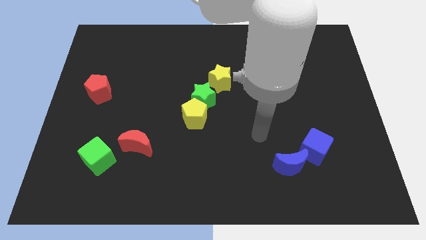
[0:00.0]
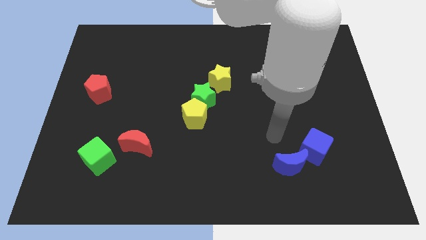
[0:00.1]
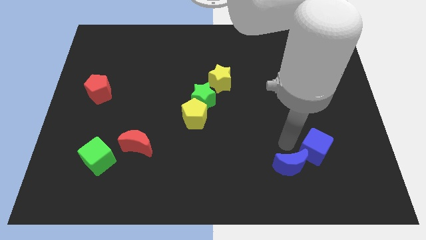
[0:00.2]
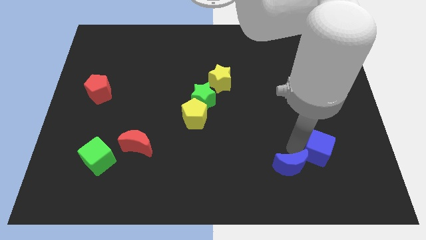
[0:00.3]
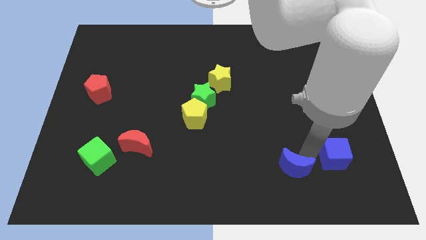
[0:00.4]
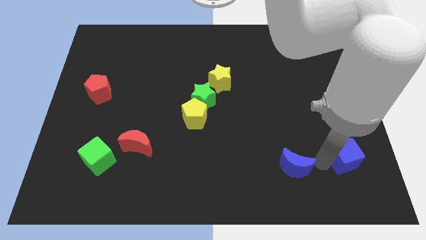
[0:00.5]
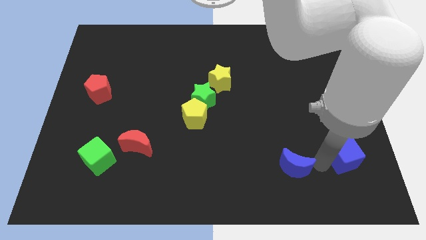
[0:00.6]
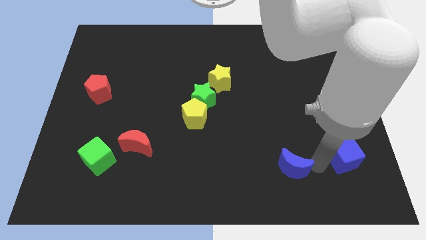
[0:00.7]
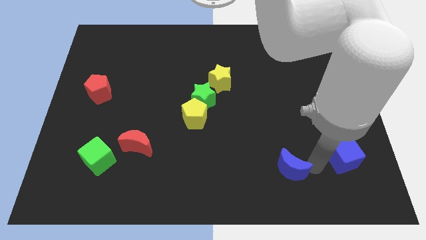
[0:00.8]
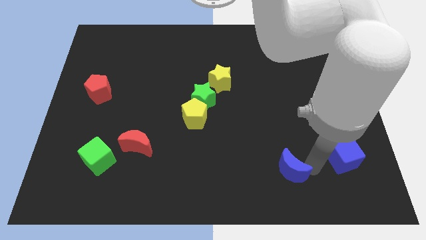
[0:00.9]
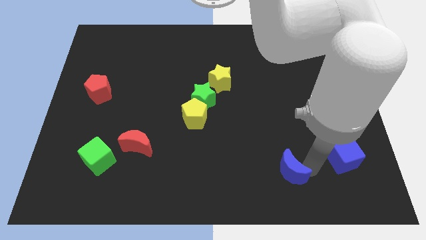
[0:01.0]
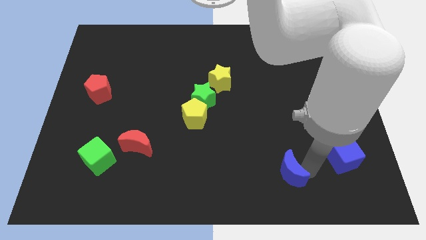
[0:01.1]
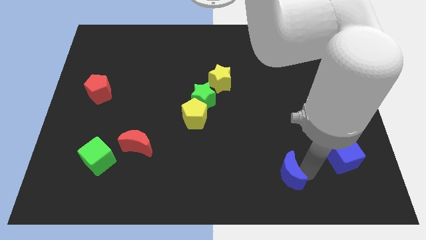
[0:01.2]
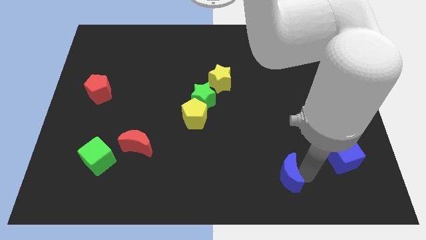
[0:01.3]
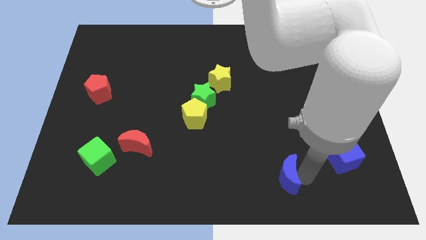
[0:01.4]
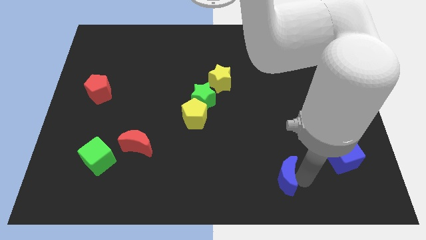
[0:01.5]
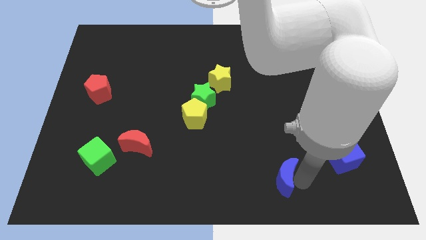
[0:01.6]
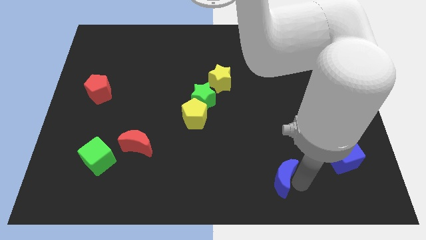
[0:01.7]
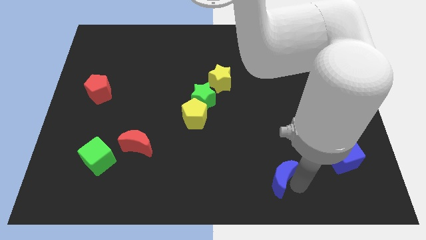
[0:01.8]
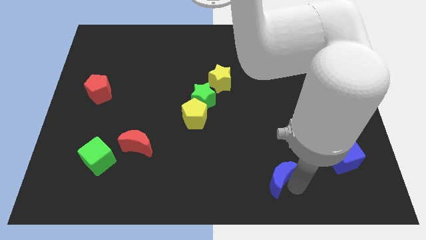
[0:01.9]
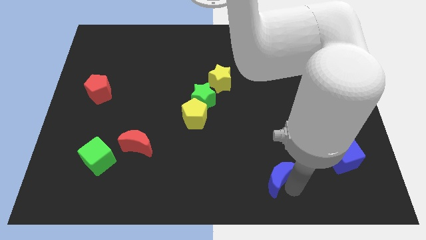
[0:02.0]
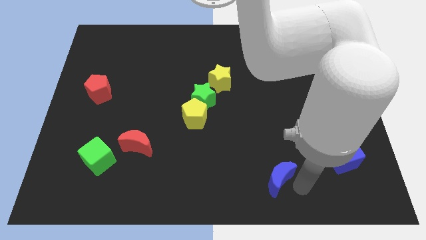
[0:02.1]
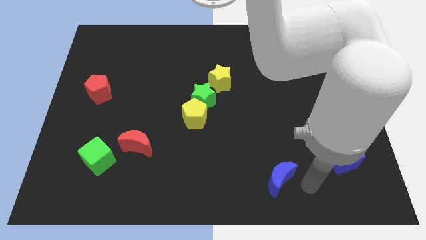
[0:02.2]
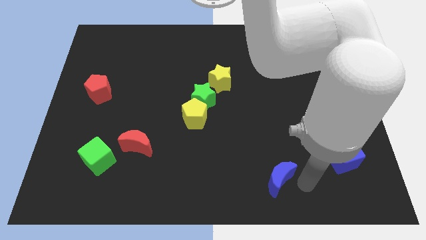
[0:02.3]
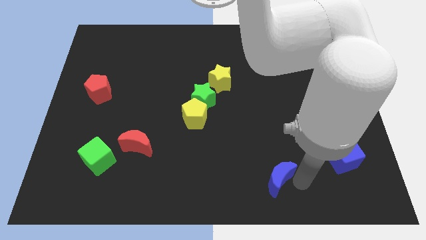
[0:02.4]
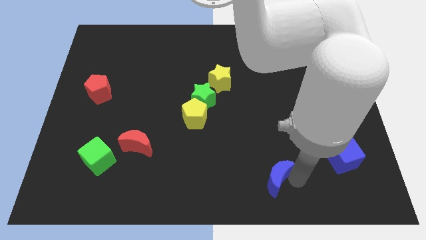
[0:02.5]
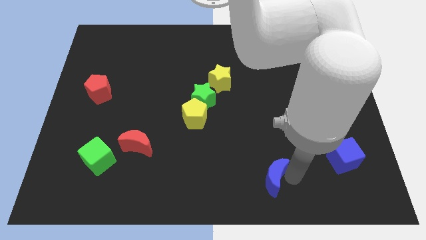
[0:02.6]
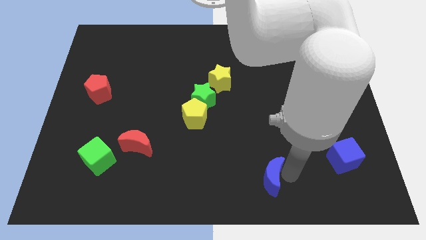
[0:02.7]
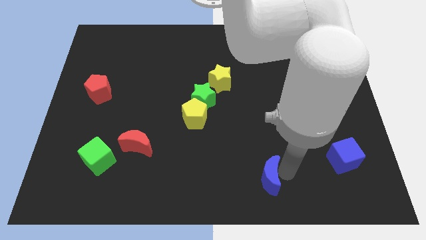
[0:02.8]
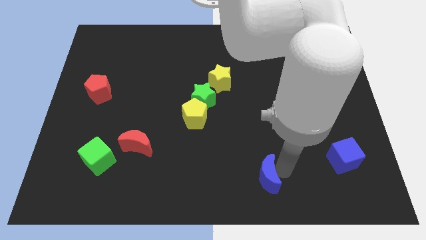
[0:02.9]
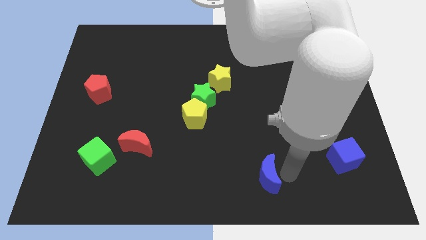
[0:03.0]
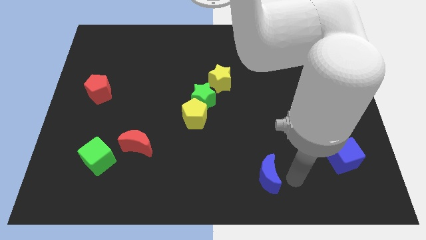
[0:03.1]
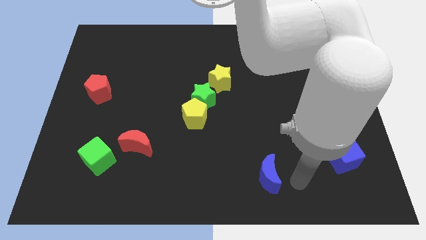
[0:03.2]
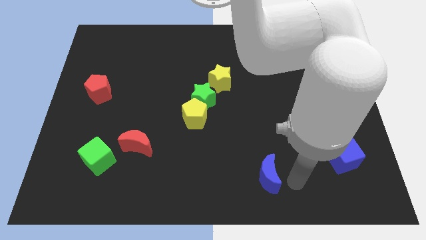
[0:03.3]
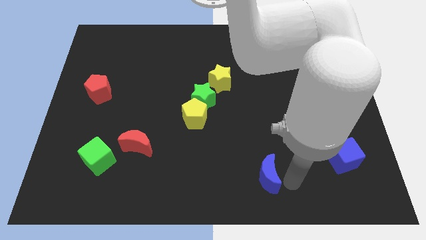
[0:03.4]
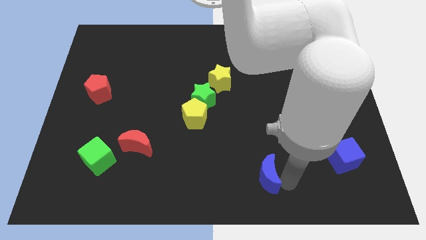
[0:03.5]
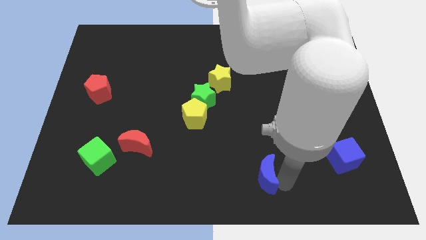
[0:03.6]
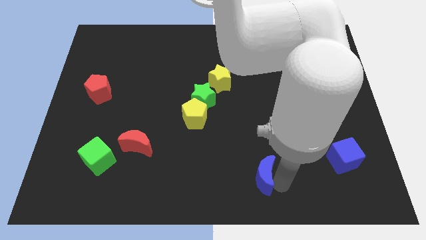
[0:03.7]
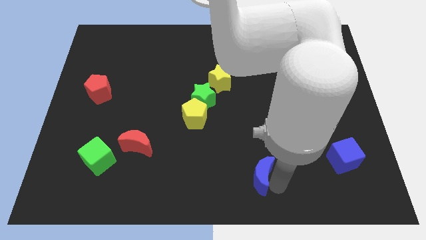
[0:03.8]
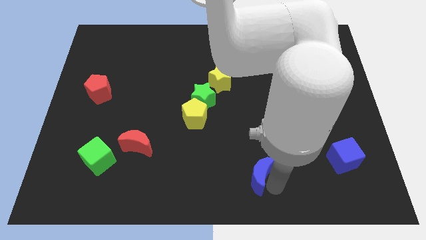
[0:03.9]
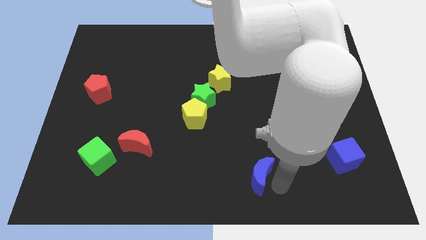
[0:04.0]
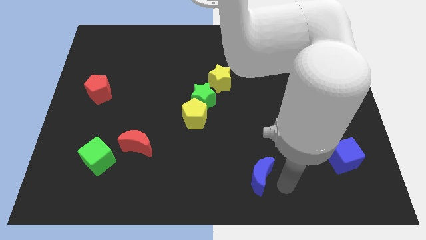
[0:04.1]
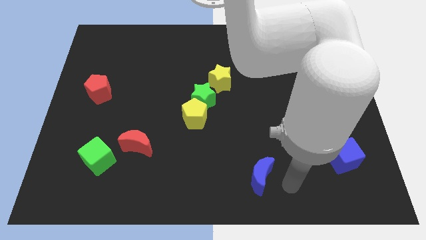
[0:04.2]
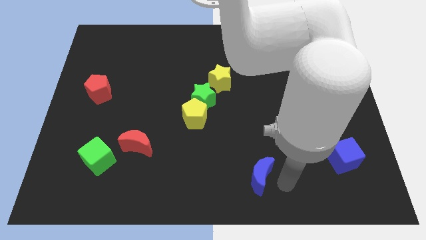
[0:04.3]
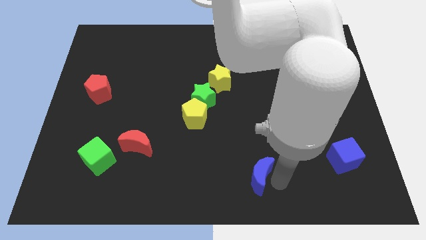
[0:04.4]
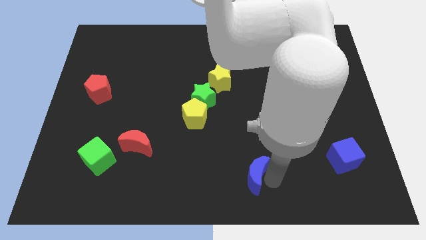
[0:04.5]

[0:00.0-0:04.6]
move the blue moon to the left a bit

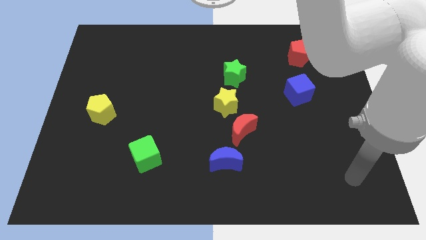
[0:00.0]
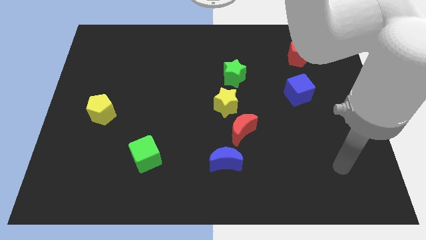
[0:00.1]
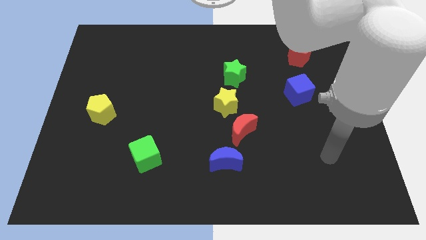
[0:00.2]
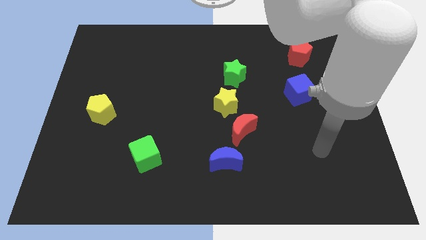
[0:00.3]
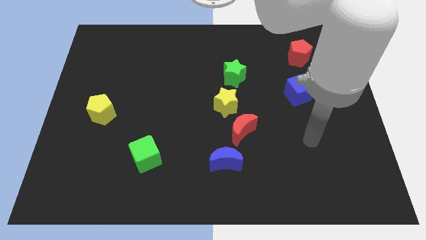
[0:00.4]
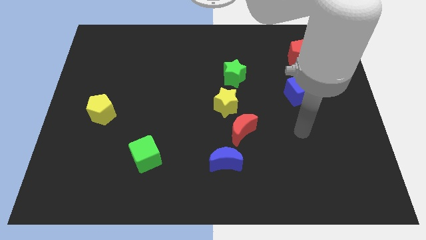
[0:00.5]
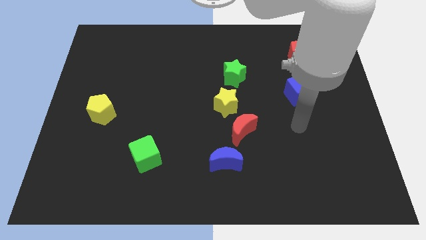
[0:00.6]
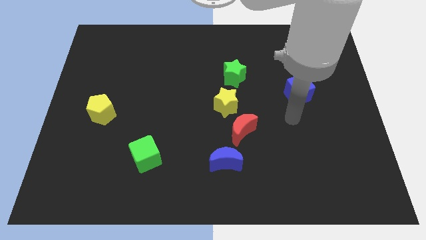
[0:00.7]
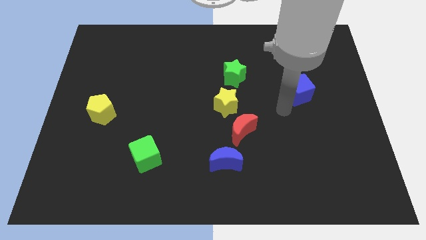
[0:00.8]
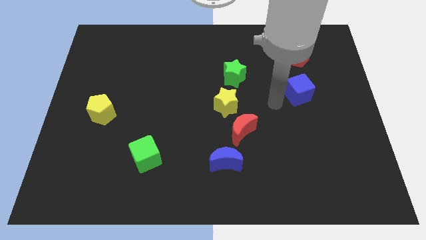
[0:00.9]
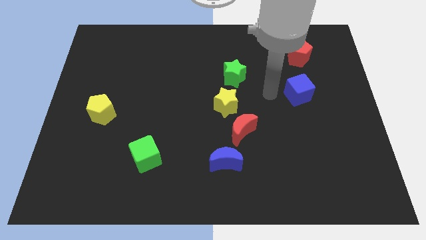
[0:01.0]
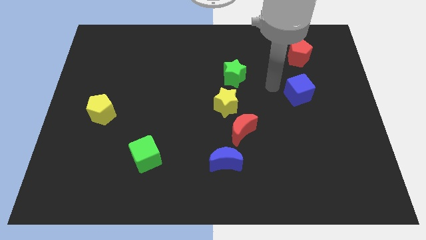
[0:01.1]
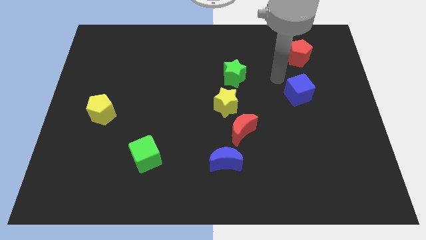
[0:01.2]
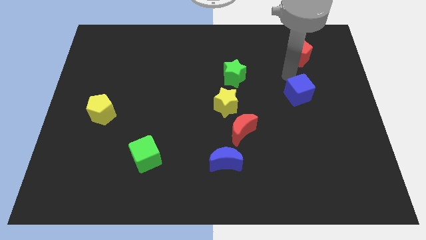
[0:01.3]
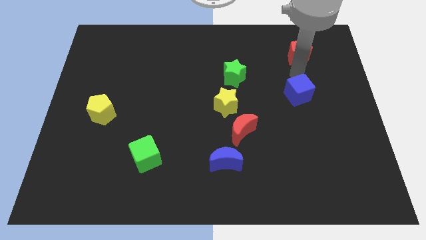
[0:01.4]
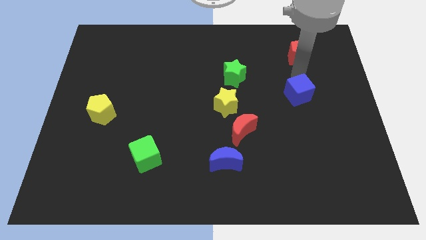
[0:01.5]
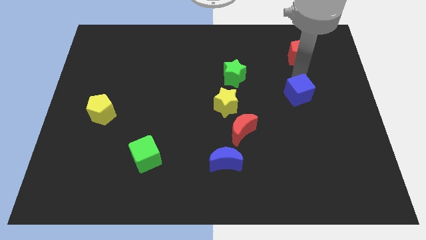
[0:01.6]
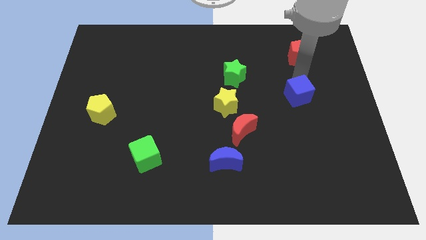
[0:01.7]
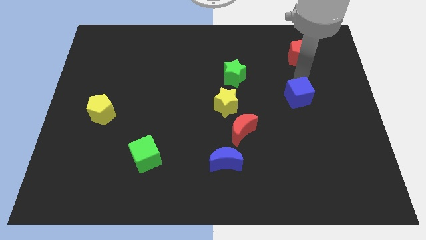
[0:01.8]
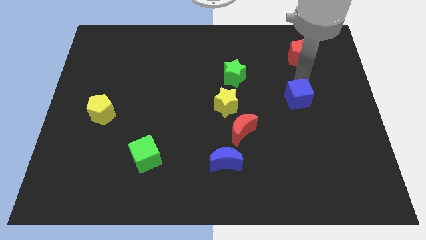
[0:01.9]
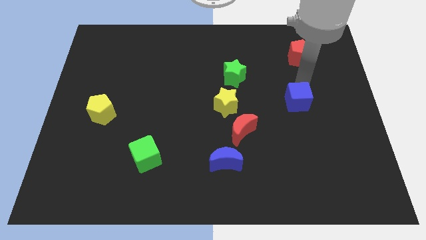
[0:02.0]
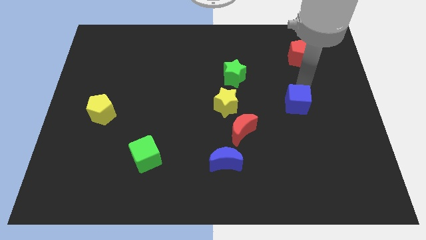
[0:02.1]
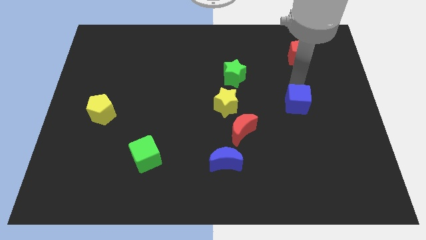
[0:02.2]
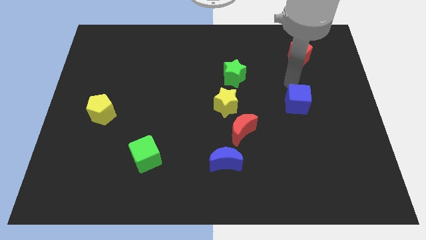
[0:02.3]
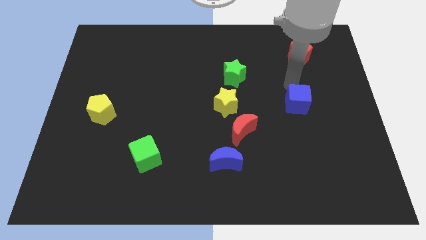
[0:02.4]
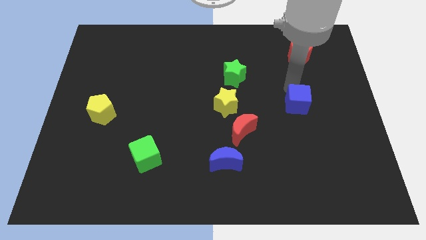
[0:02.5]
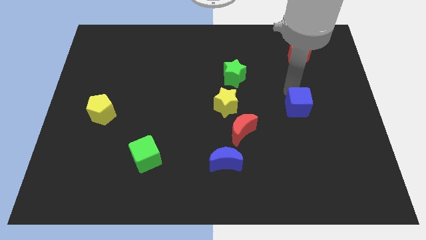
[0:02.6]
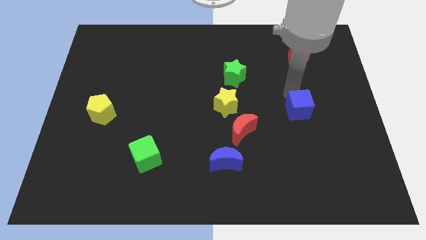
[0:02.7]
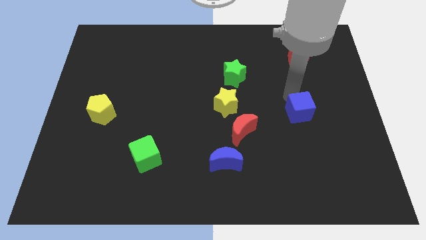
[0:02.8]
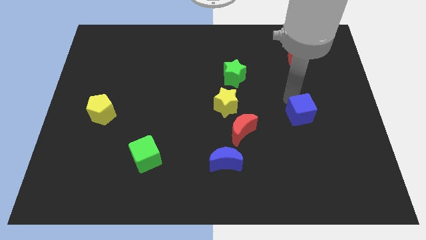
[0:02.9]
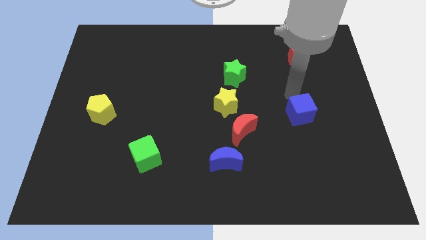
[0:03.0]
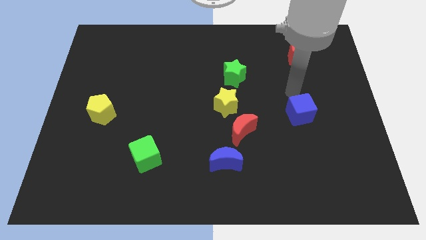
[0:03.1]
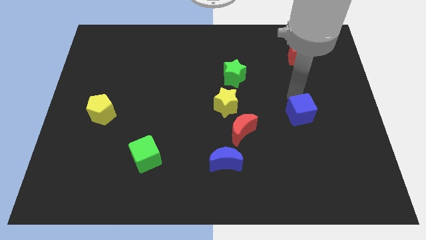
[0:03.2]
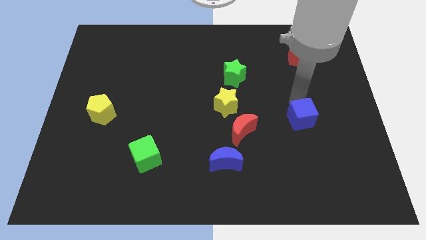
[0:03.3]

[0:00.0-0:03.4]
move the blue cube a little down
